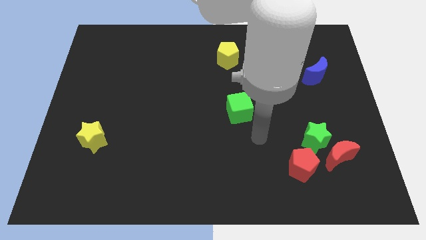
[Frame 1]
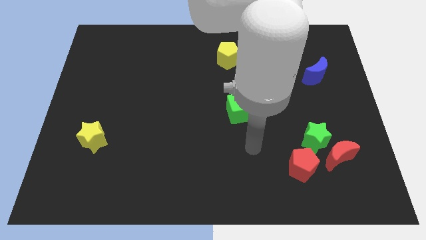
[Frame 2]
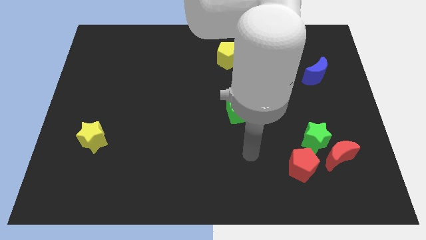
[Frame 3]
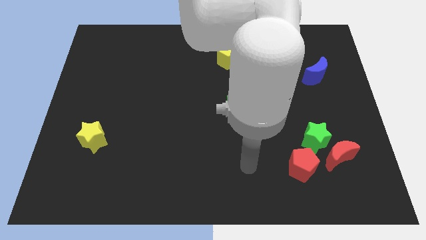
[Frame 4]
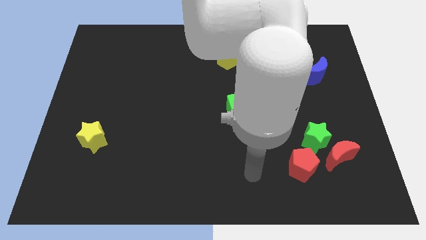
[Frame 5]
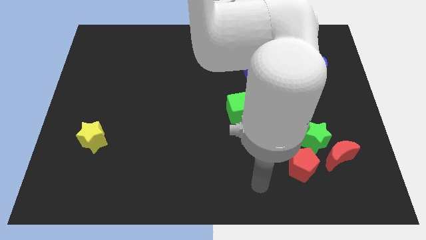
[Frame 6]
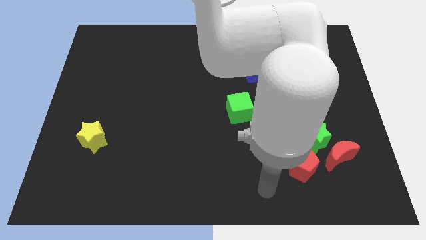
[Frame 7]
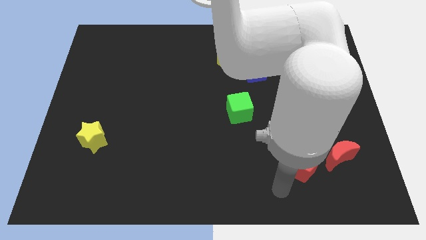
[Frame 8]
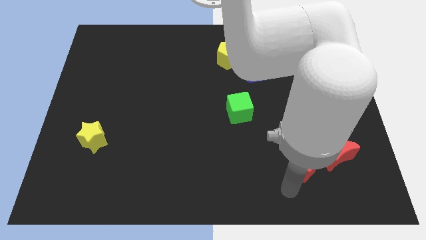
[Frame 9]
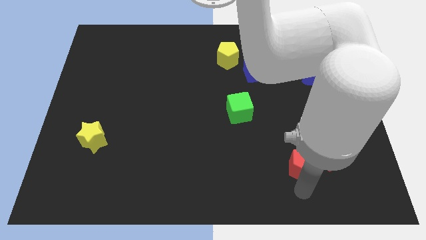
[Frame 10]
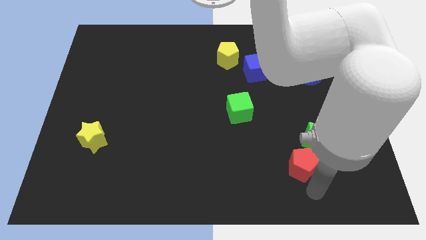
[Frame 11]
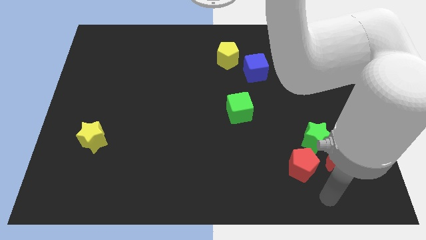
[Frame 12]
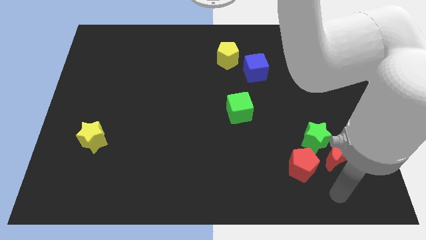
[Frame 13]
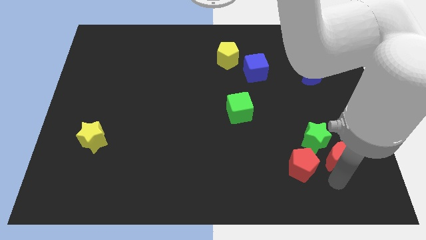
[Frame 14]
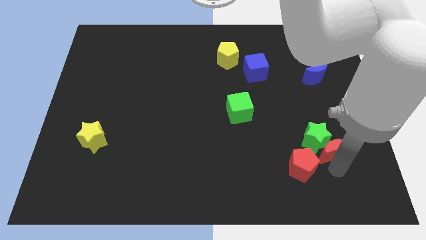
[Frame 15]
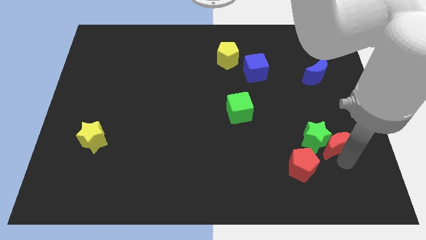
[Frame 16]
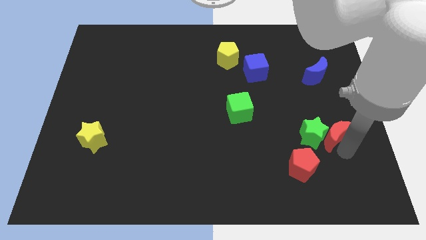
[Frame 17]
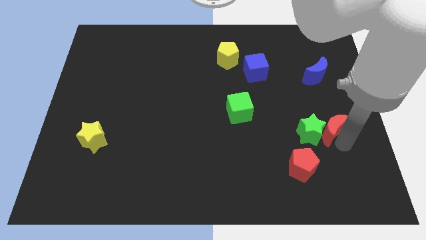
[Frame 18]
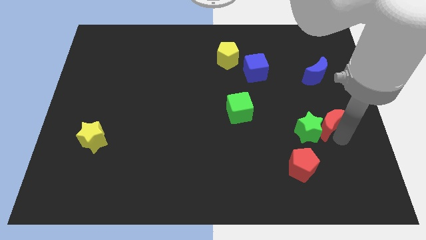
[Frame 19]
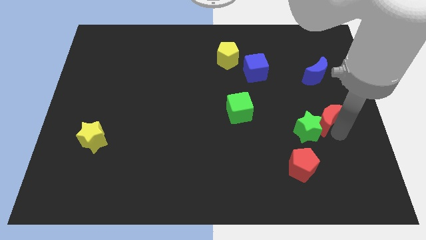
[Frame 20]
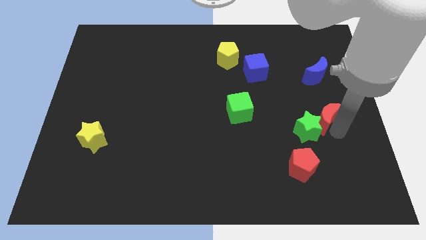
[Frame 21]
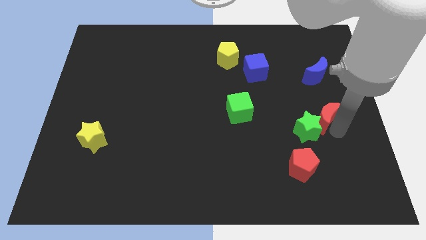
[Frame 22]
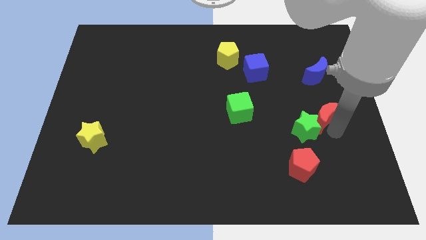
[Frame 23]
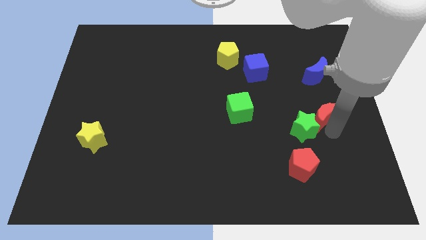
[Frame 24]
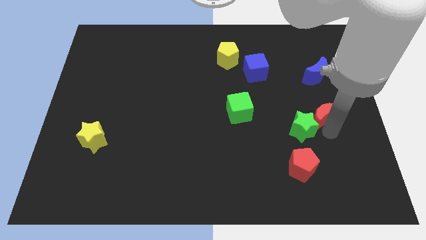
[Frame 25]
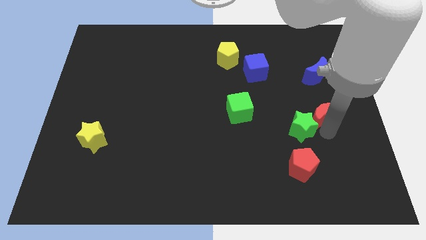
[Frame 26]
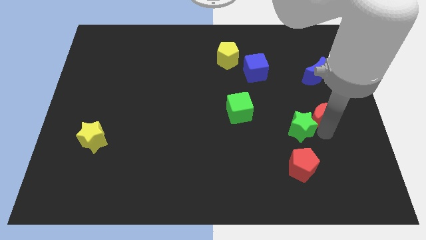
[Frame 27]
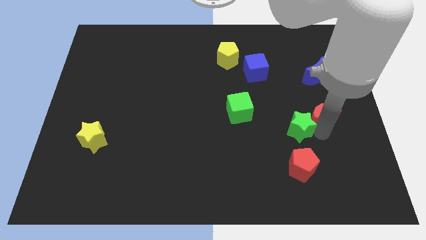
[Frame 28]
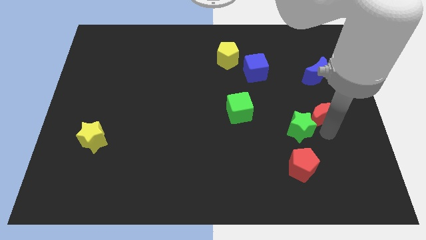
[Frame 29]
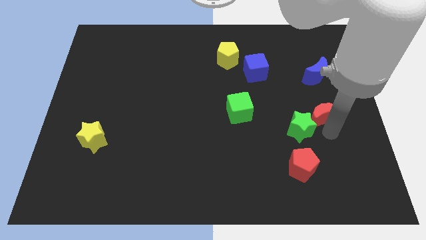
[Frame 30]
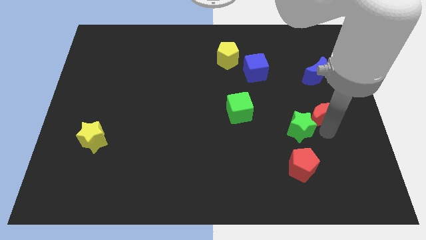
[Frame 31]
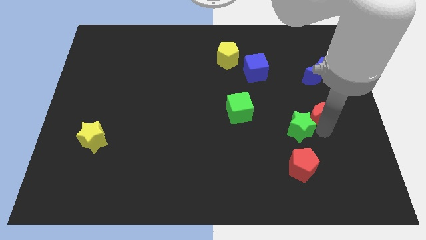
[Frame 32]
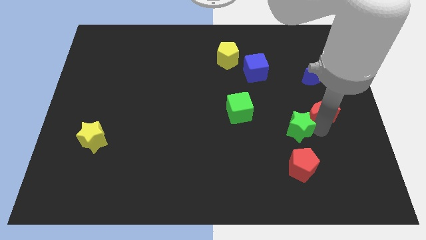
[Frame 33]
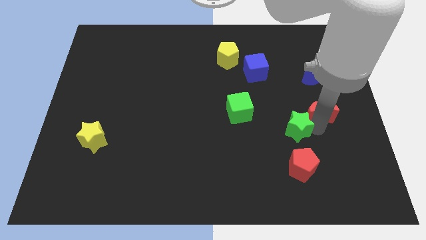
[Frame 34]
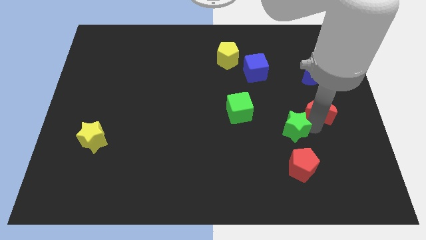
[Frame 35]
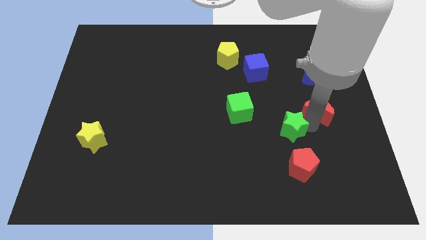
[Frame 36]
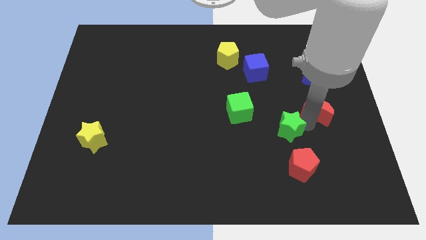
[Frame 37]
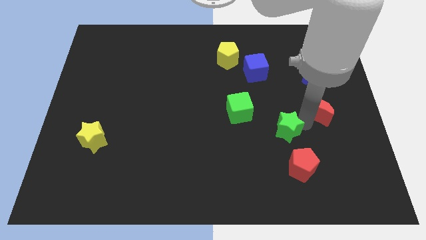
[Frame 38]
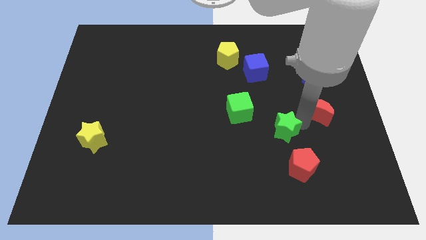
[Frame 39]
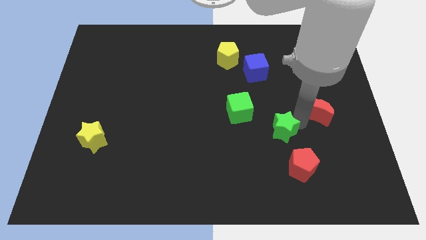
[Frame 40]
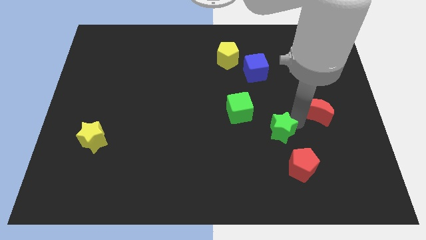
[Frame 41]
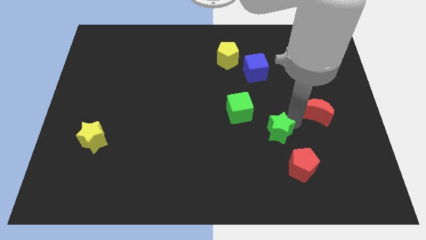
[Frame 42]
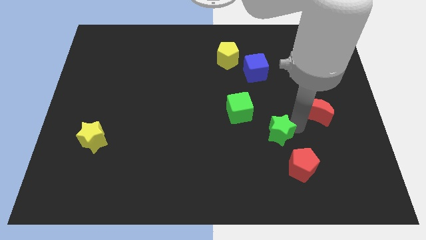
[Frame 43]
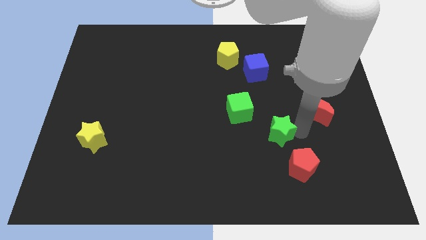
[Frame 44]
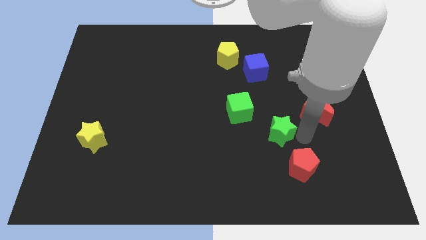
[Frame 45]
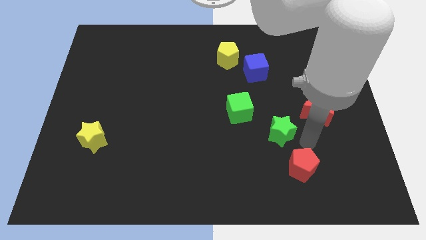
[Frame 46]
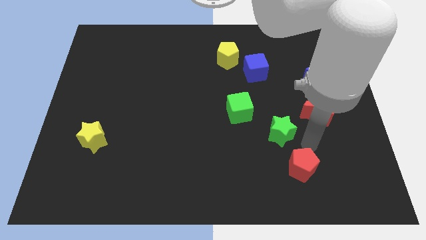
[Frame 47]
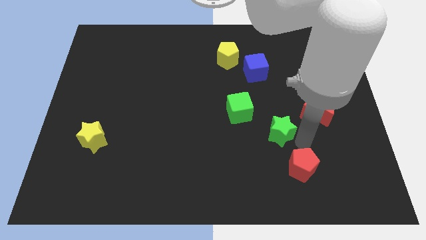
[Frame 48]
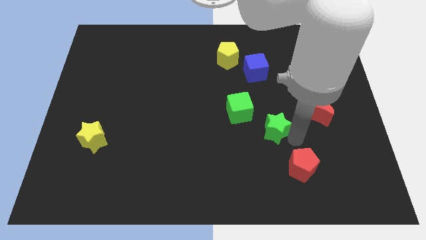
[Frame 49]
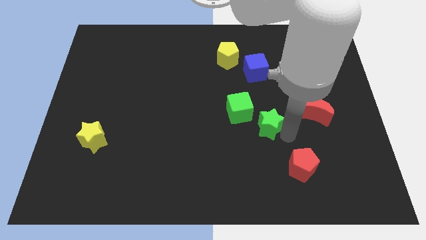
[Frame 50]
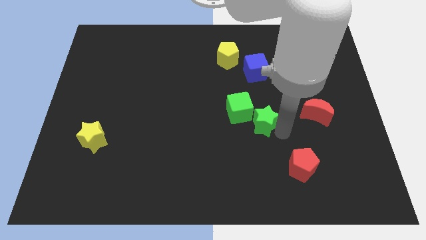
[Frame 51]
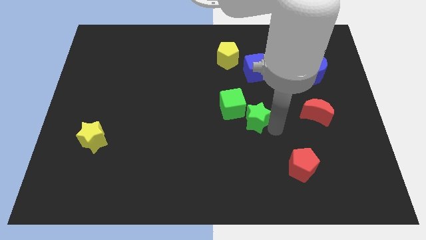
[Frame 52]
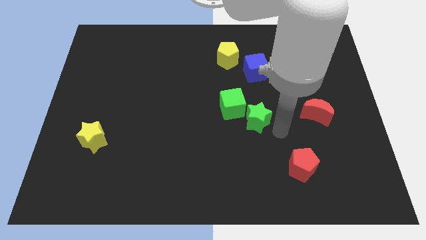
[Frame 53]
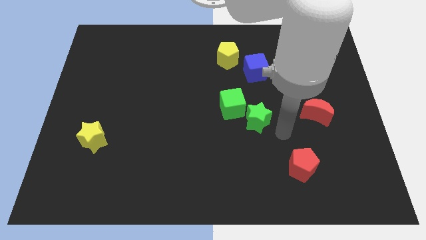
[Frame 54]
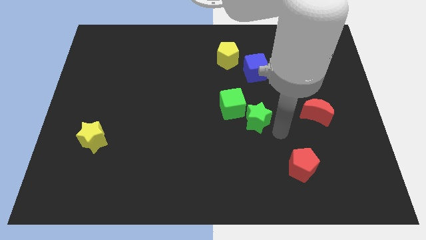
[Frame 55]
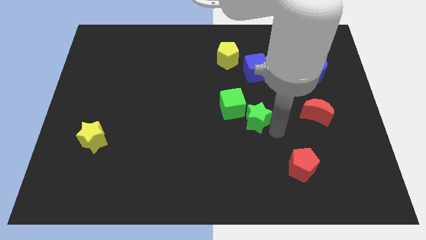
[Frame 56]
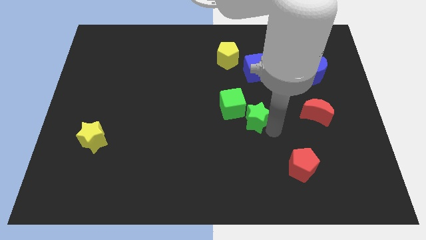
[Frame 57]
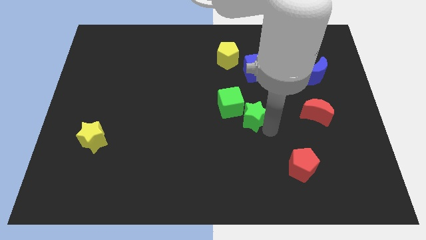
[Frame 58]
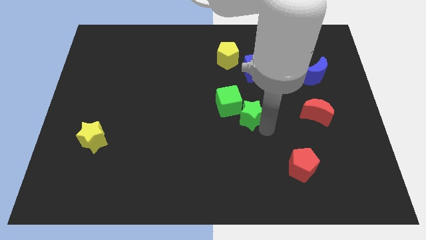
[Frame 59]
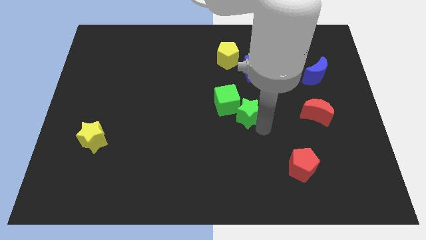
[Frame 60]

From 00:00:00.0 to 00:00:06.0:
push the green star towards the green cube
